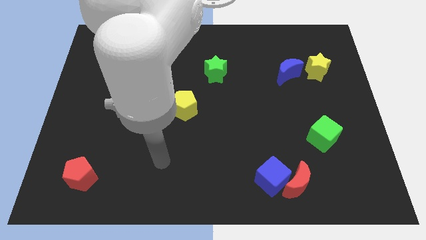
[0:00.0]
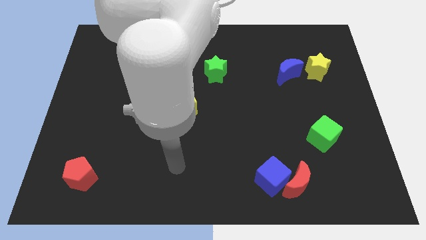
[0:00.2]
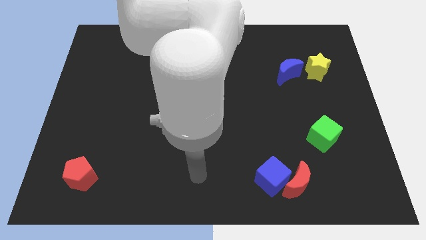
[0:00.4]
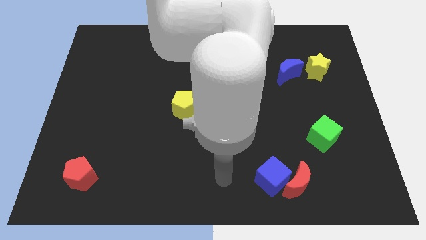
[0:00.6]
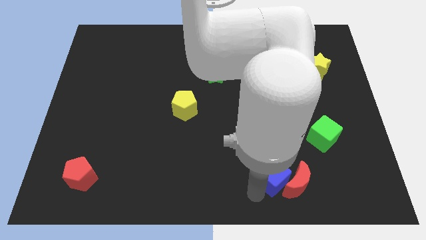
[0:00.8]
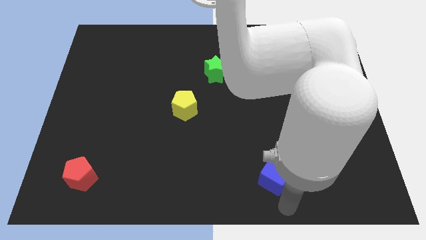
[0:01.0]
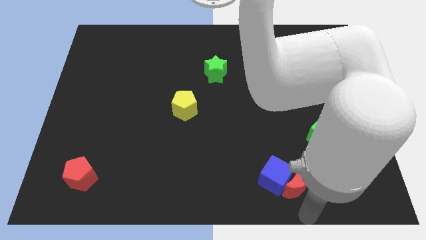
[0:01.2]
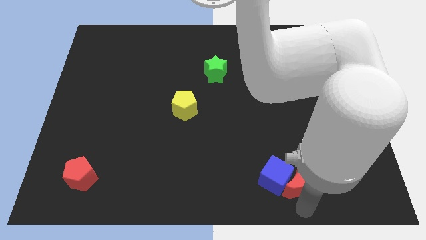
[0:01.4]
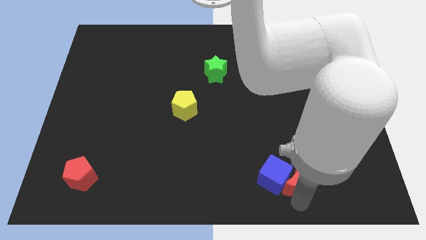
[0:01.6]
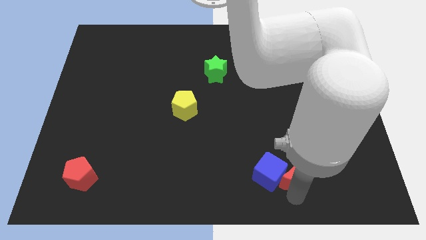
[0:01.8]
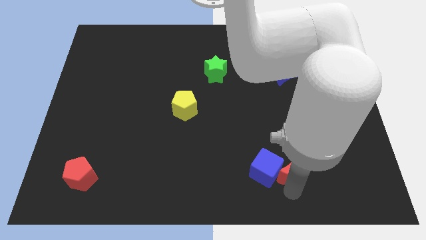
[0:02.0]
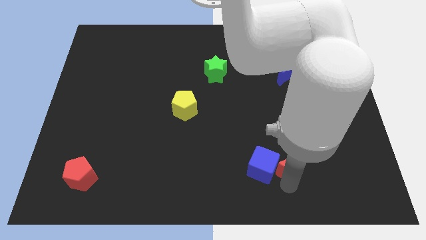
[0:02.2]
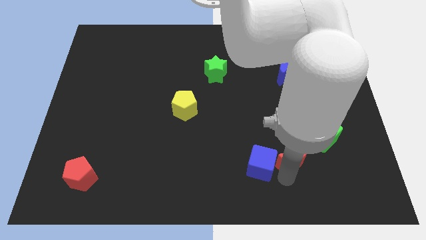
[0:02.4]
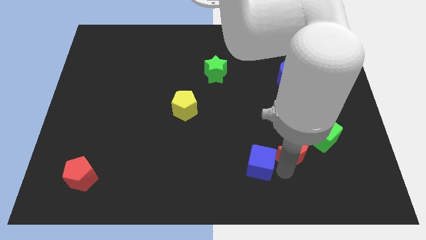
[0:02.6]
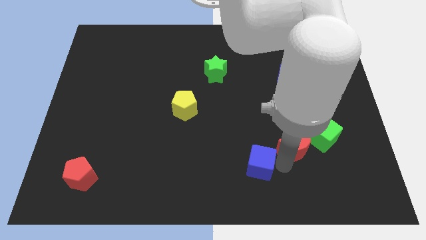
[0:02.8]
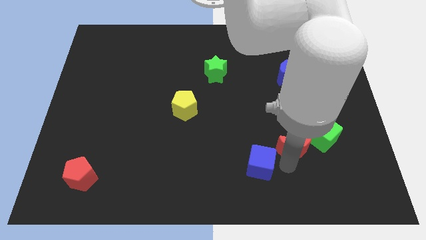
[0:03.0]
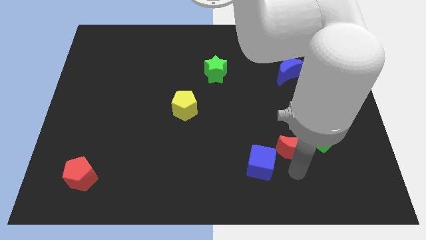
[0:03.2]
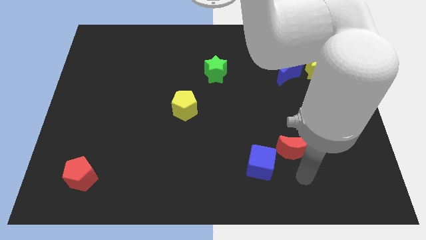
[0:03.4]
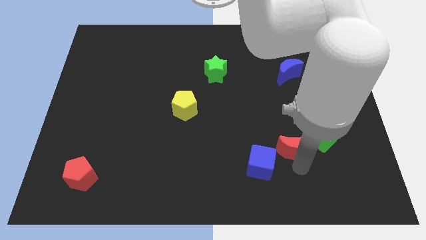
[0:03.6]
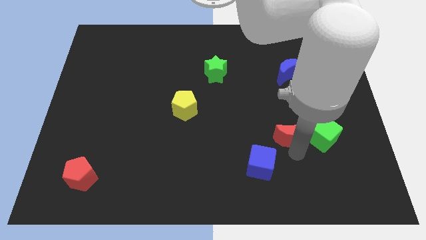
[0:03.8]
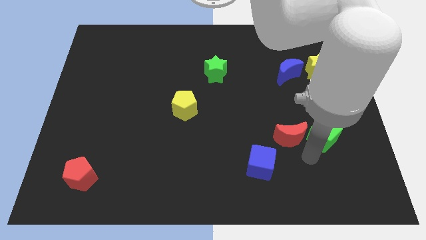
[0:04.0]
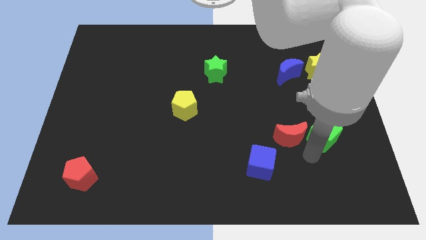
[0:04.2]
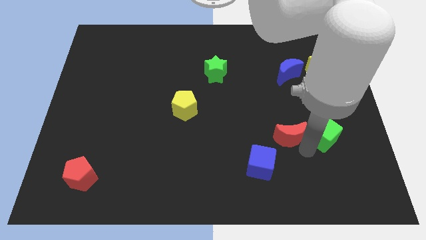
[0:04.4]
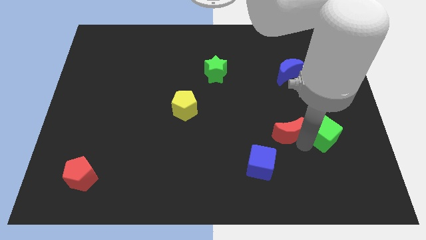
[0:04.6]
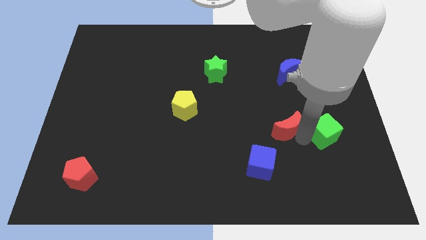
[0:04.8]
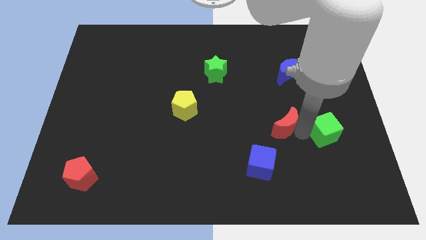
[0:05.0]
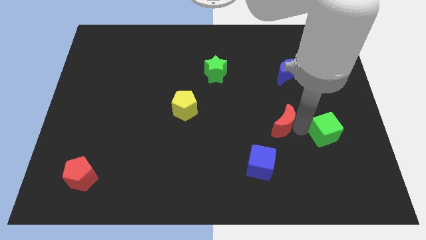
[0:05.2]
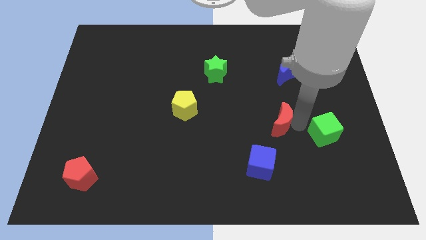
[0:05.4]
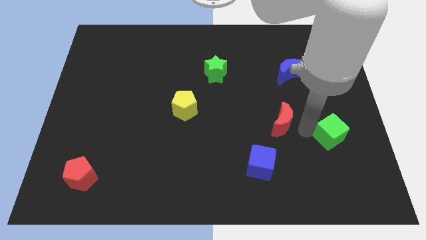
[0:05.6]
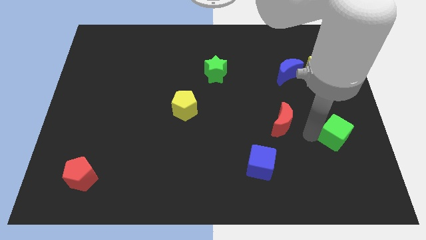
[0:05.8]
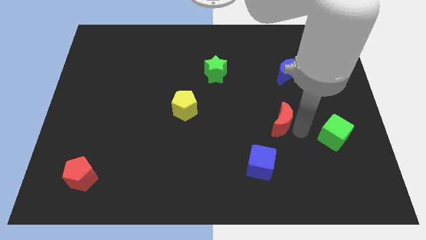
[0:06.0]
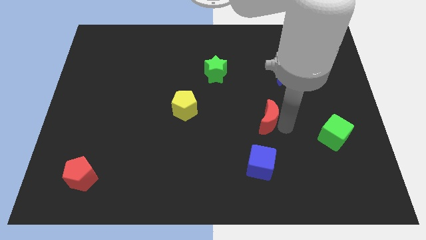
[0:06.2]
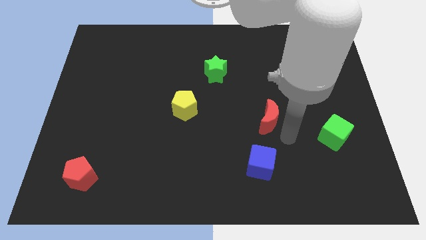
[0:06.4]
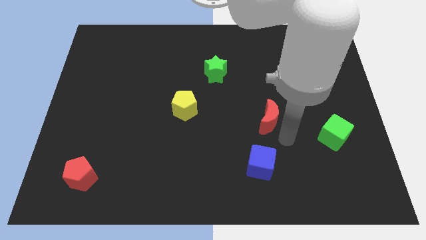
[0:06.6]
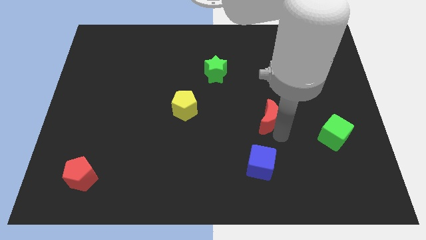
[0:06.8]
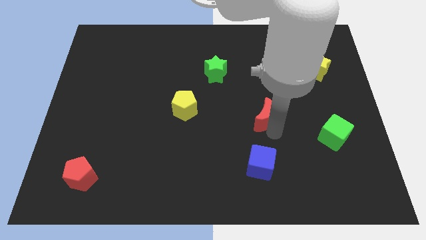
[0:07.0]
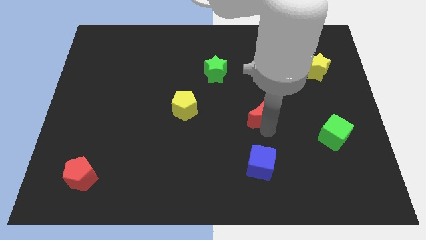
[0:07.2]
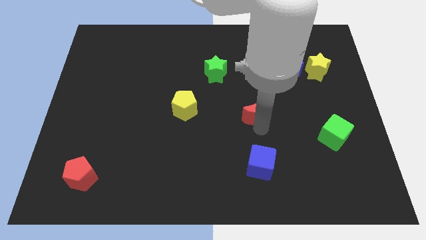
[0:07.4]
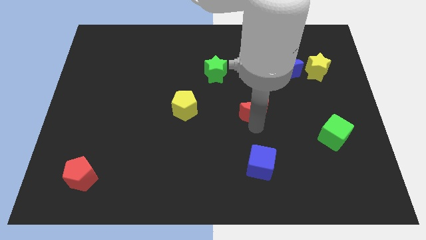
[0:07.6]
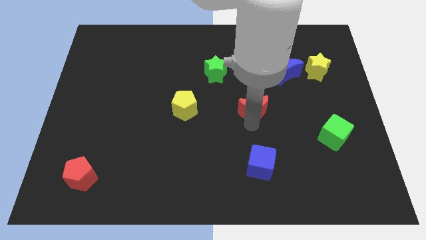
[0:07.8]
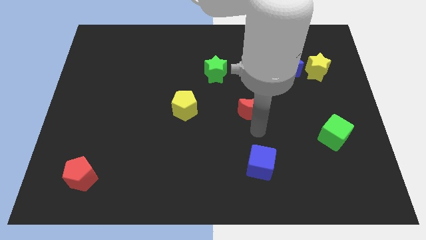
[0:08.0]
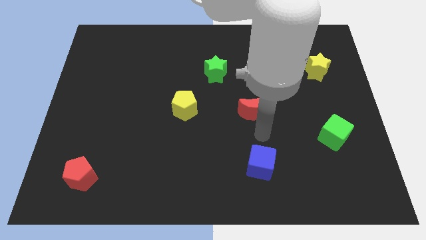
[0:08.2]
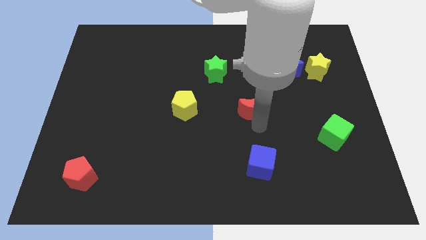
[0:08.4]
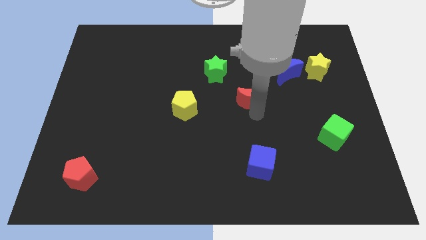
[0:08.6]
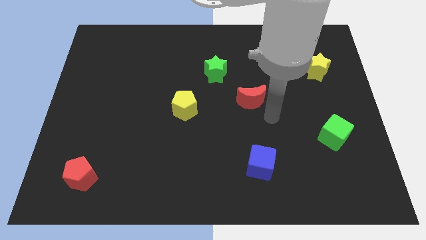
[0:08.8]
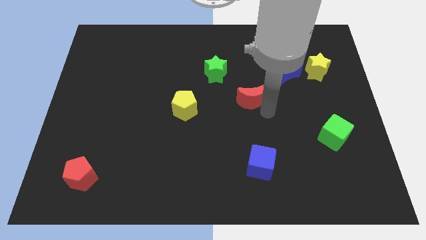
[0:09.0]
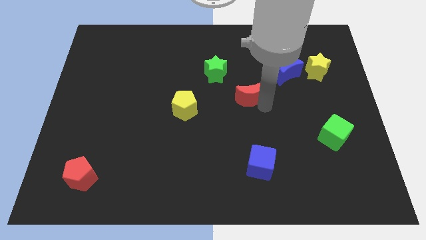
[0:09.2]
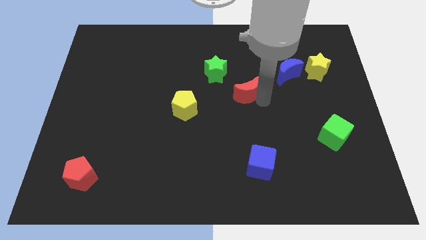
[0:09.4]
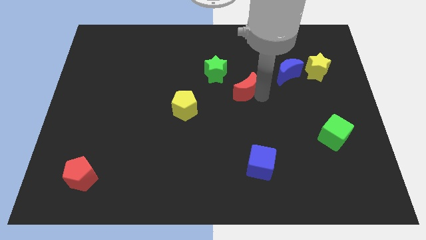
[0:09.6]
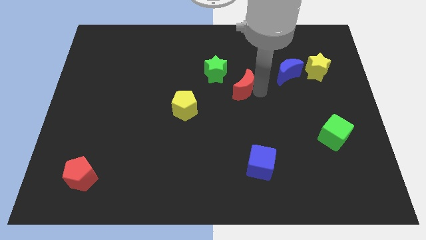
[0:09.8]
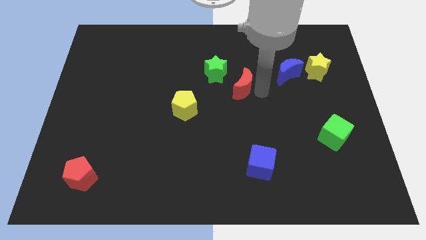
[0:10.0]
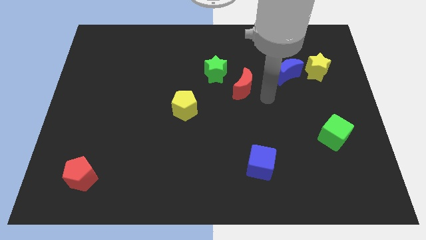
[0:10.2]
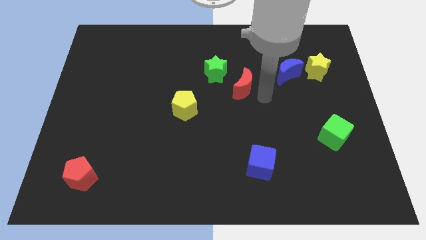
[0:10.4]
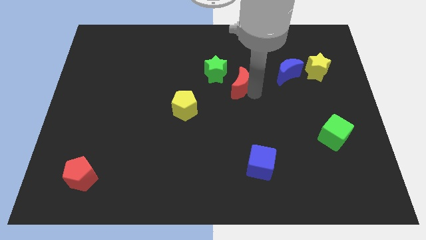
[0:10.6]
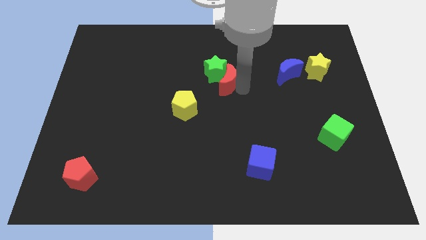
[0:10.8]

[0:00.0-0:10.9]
slide the red moon towards the green star

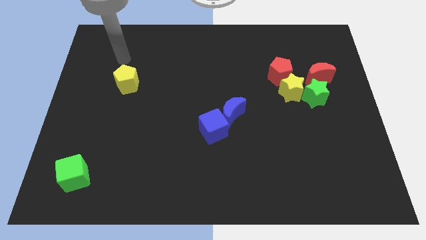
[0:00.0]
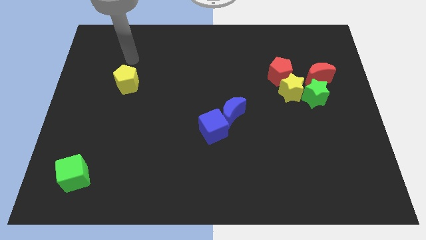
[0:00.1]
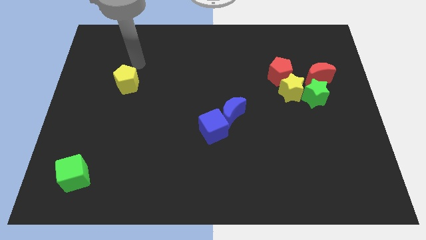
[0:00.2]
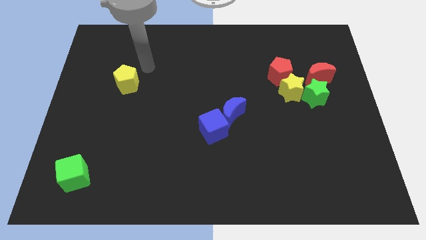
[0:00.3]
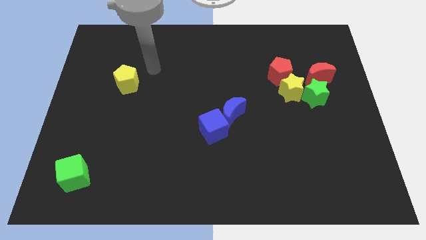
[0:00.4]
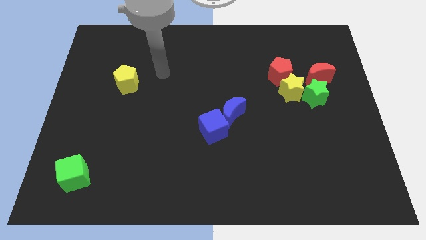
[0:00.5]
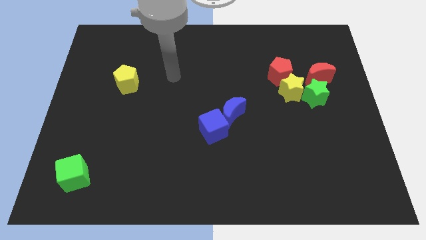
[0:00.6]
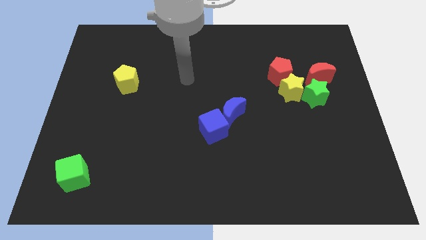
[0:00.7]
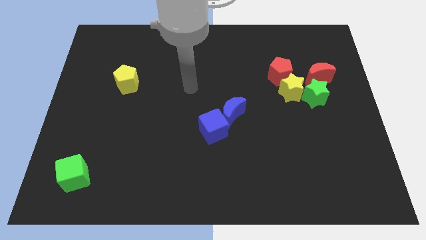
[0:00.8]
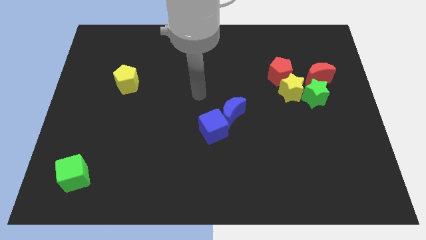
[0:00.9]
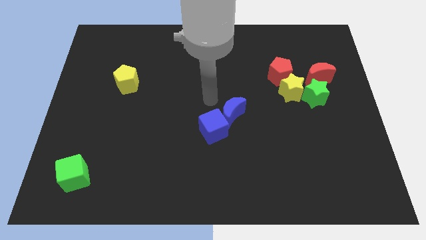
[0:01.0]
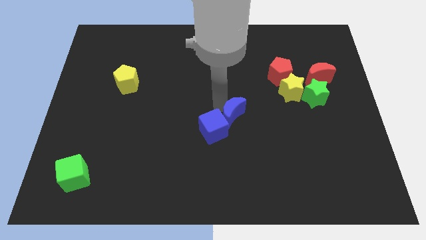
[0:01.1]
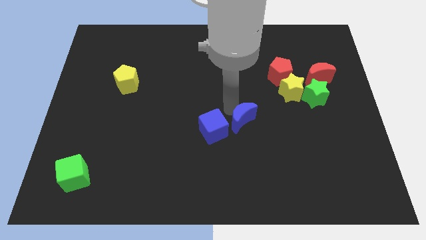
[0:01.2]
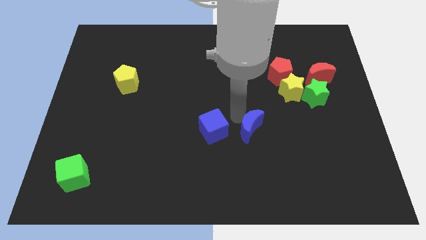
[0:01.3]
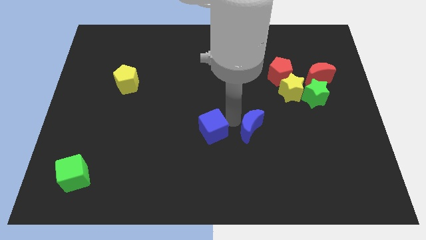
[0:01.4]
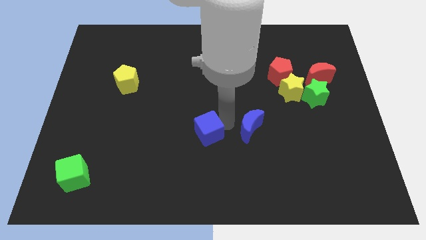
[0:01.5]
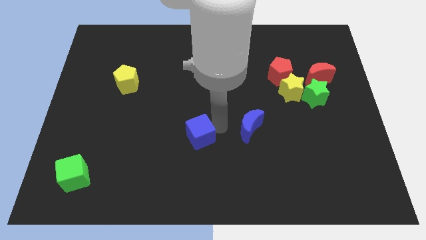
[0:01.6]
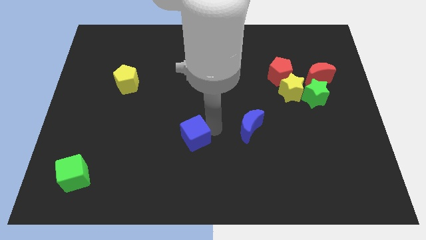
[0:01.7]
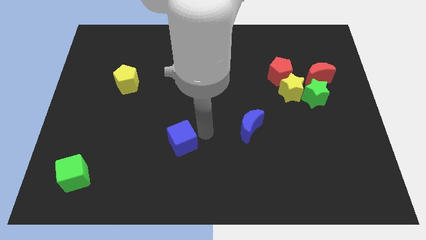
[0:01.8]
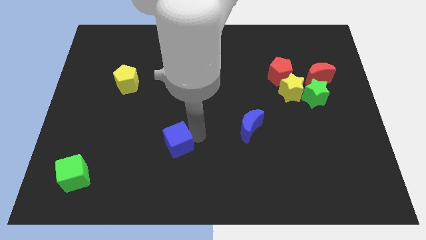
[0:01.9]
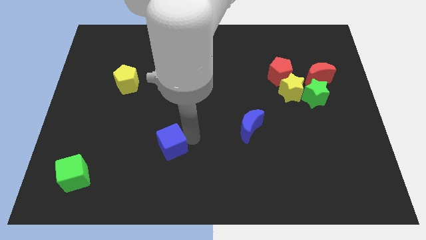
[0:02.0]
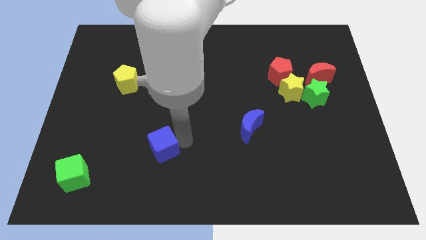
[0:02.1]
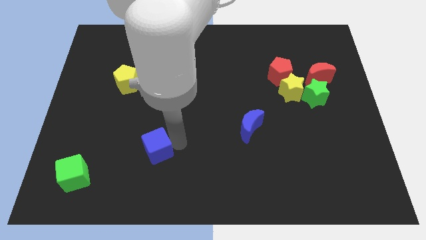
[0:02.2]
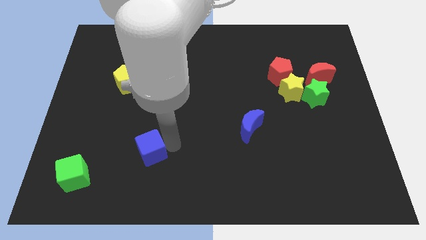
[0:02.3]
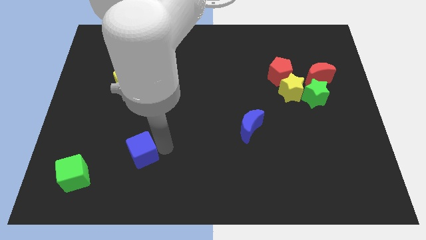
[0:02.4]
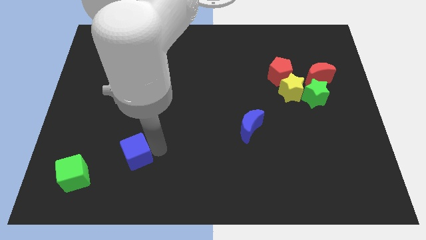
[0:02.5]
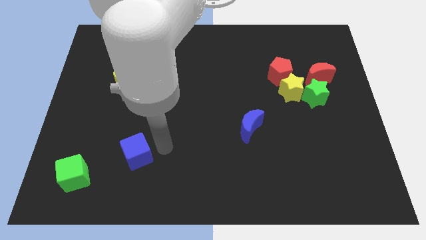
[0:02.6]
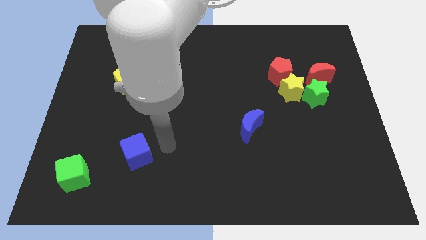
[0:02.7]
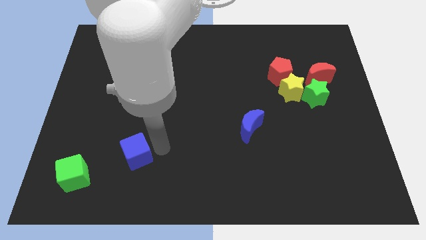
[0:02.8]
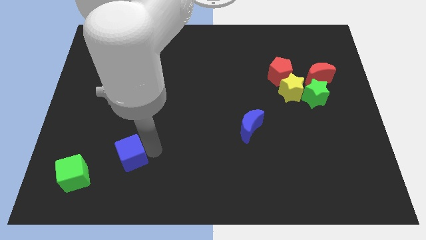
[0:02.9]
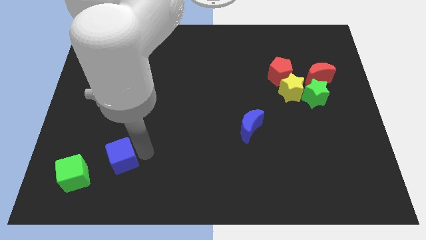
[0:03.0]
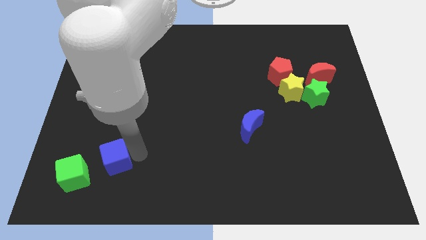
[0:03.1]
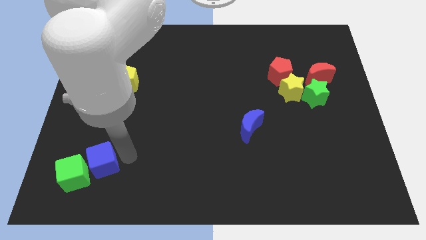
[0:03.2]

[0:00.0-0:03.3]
move the blue cube towards the green cube
